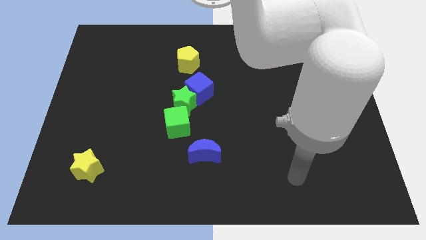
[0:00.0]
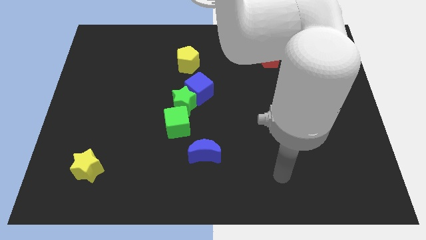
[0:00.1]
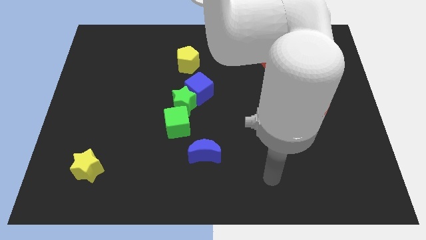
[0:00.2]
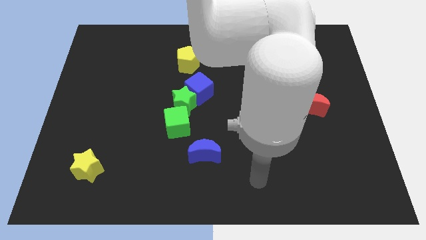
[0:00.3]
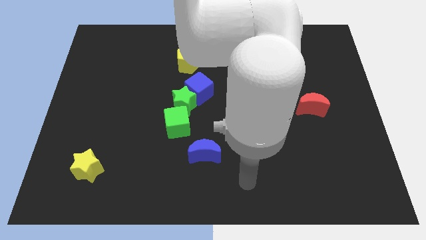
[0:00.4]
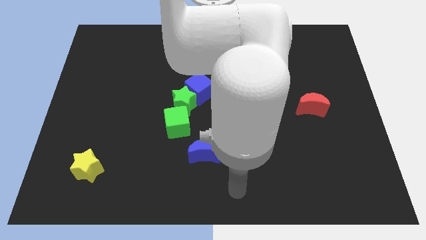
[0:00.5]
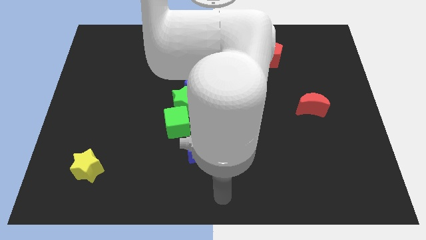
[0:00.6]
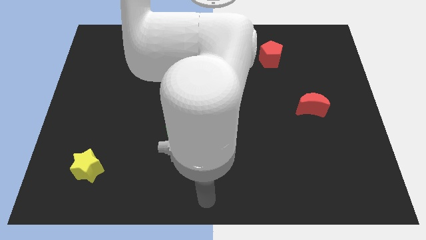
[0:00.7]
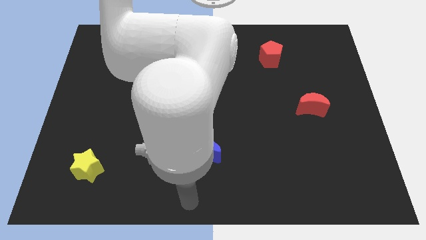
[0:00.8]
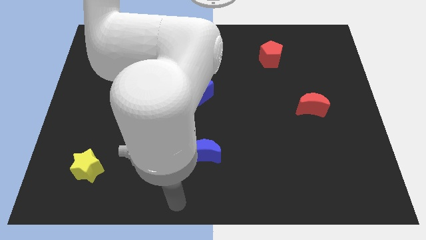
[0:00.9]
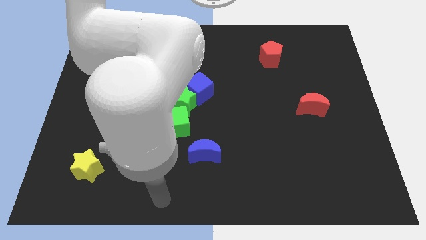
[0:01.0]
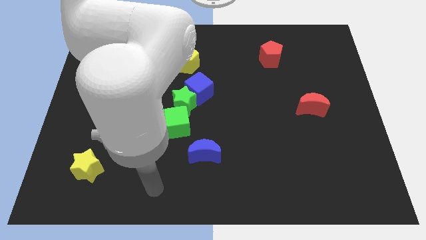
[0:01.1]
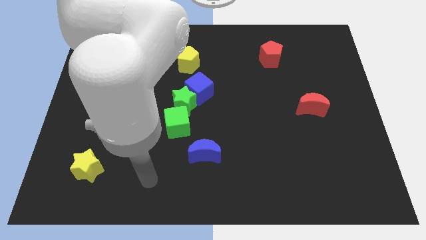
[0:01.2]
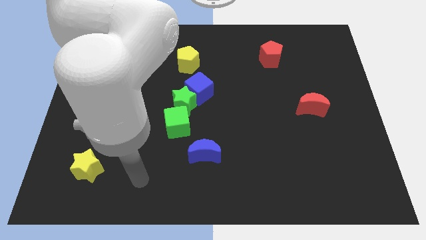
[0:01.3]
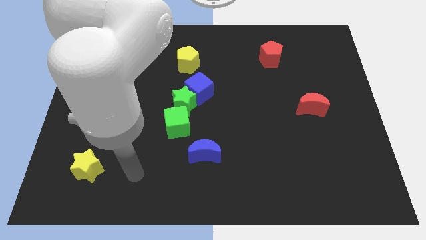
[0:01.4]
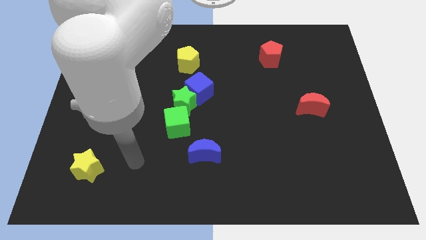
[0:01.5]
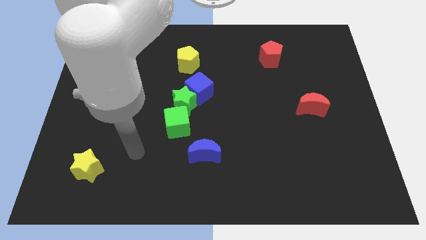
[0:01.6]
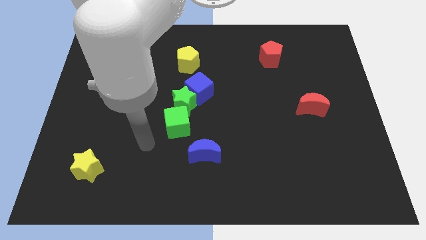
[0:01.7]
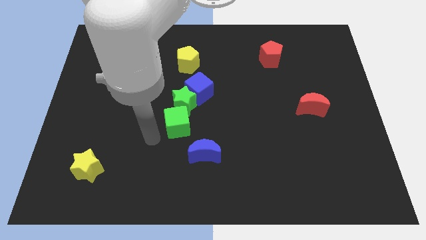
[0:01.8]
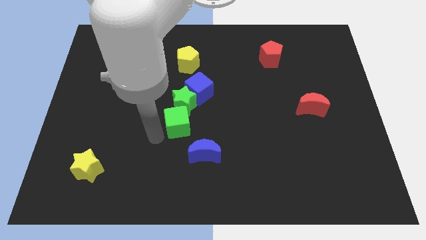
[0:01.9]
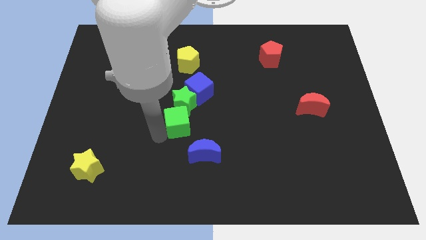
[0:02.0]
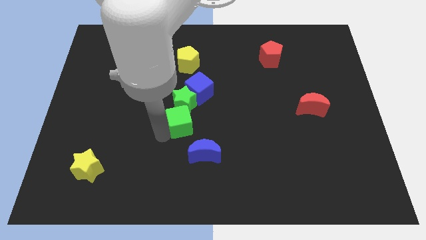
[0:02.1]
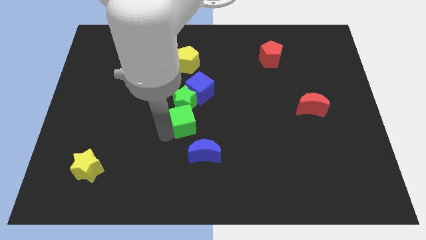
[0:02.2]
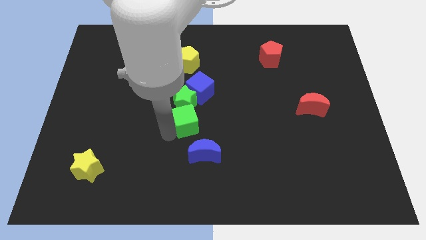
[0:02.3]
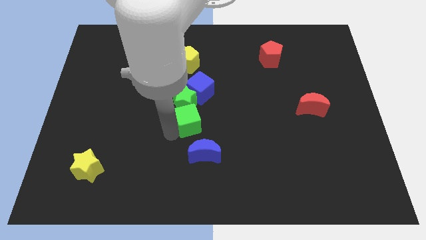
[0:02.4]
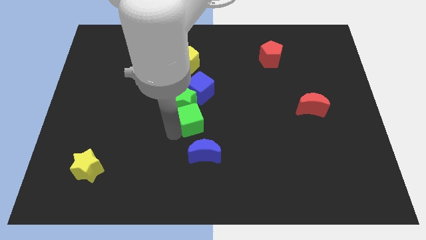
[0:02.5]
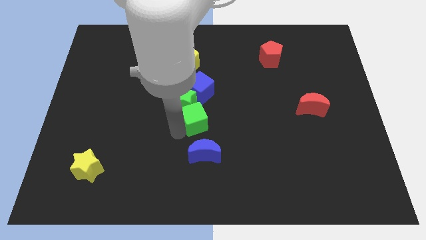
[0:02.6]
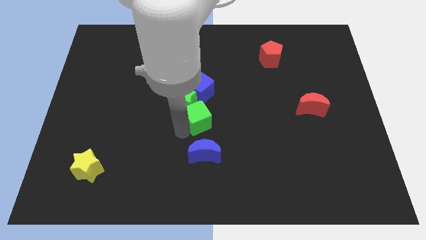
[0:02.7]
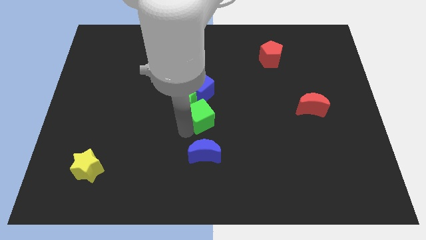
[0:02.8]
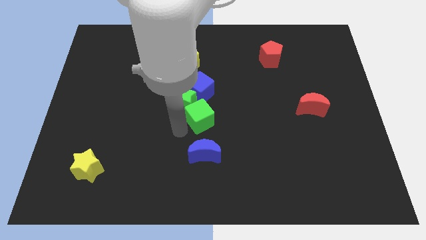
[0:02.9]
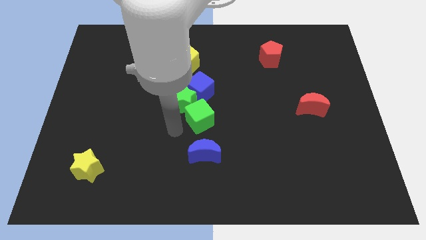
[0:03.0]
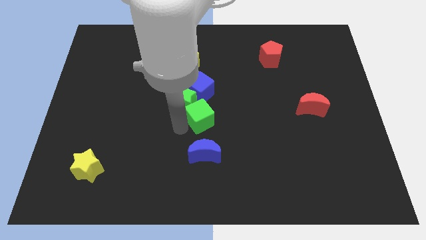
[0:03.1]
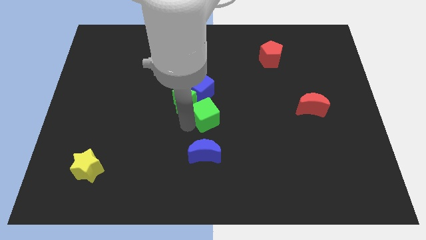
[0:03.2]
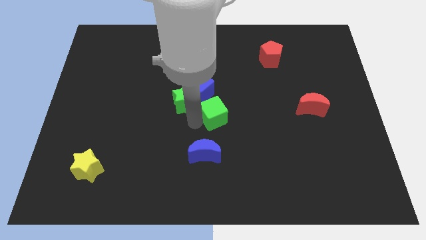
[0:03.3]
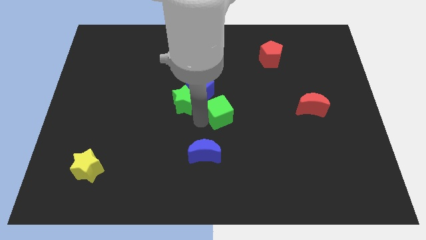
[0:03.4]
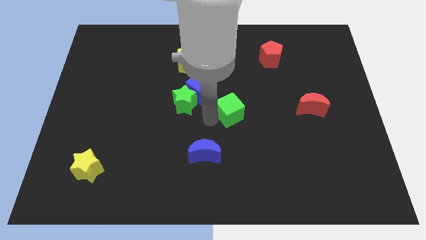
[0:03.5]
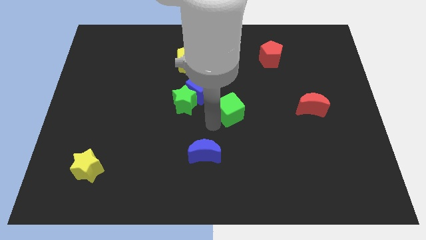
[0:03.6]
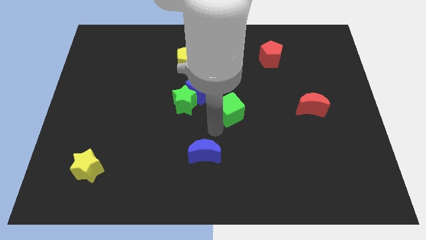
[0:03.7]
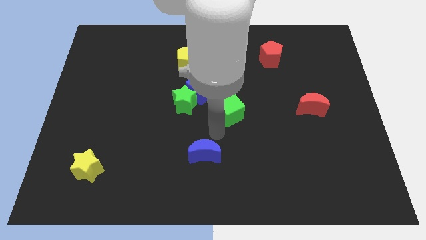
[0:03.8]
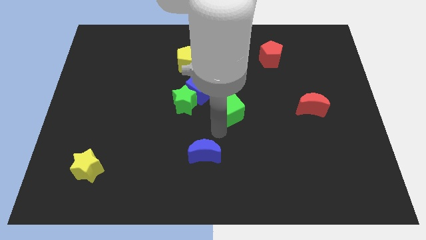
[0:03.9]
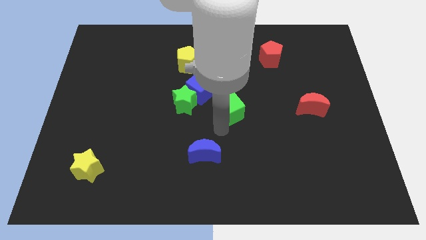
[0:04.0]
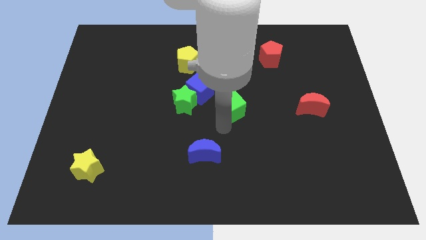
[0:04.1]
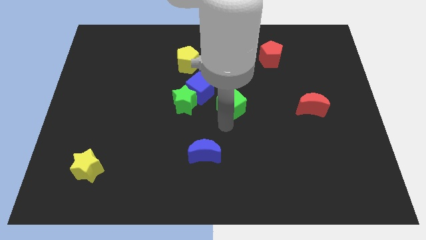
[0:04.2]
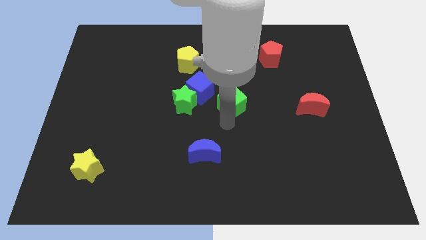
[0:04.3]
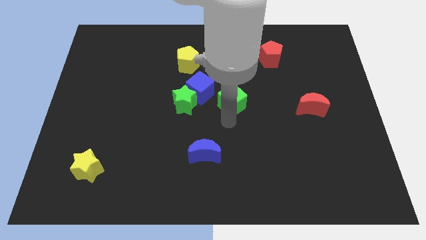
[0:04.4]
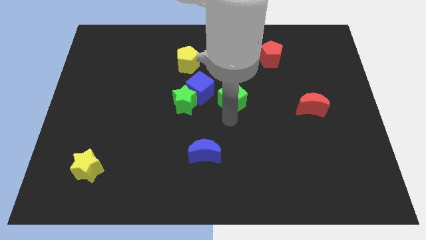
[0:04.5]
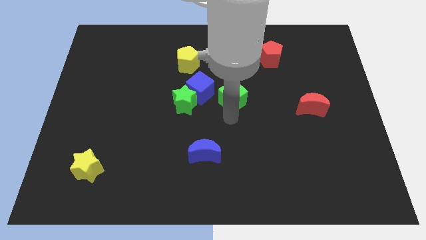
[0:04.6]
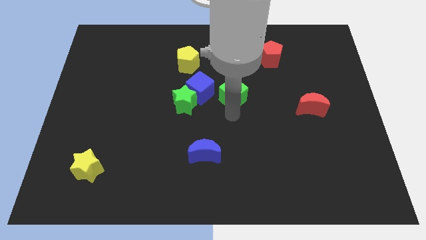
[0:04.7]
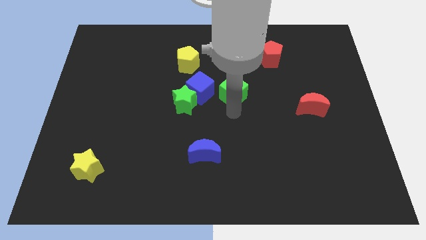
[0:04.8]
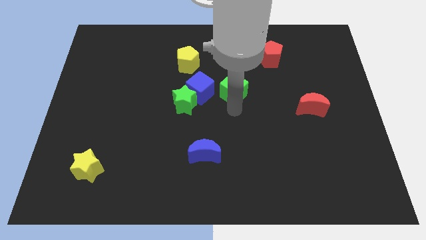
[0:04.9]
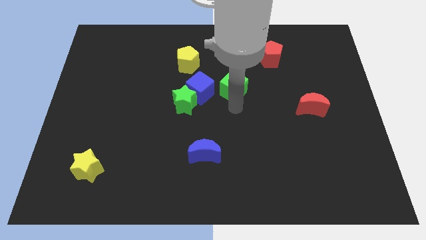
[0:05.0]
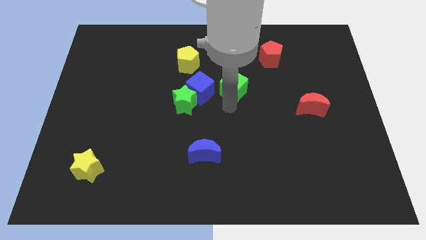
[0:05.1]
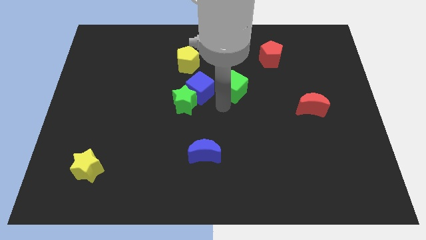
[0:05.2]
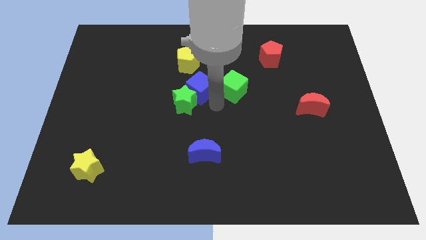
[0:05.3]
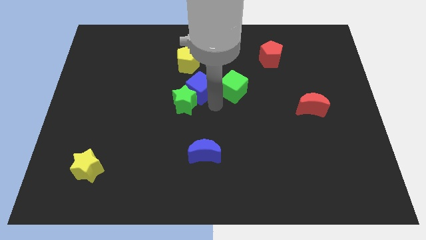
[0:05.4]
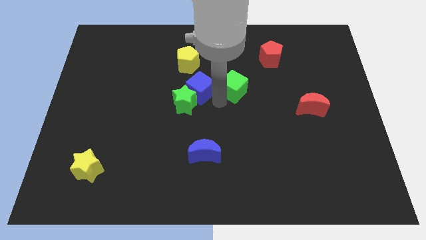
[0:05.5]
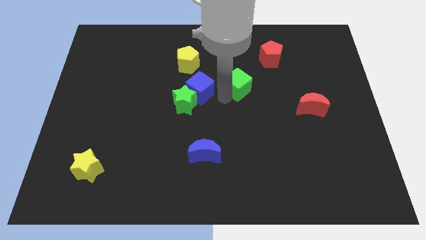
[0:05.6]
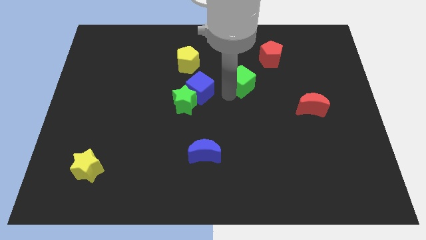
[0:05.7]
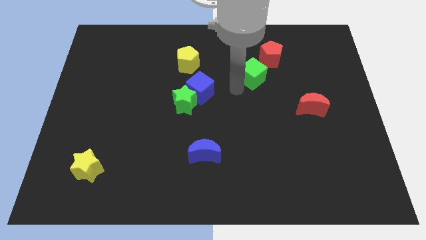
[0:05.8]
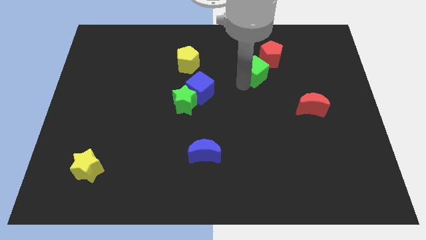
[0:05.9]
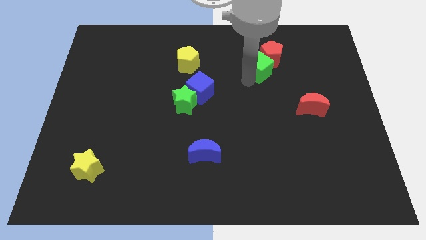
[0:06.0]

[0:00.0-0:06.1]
slide the green cube next to the red pentagon

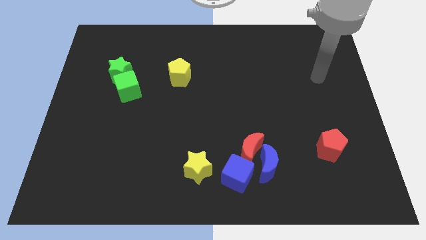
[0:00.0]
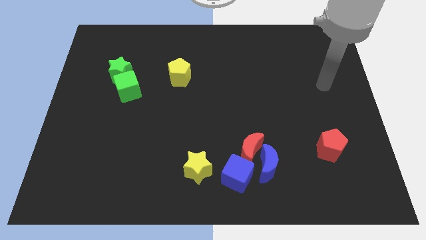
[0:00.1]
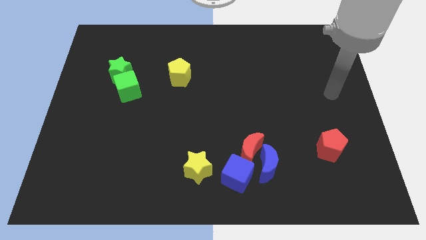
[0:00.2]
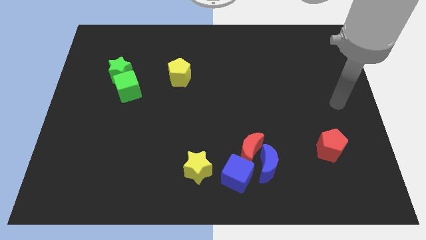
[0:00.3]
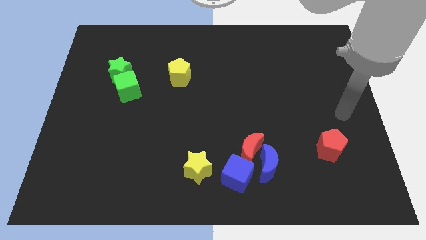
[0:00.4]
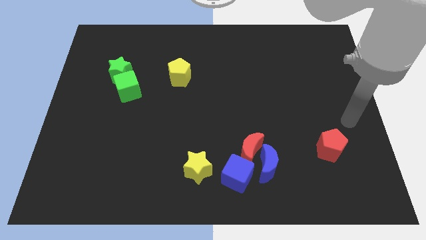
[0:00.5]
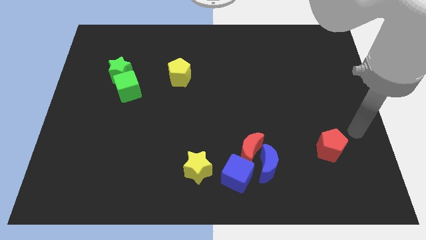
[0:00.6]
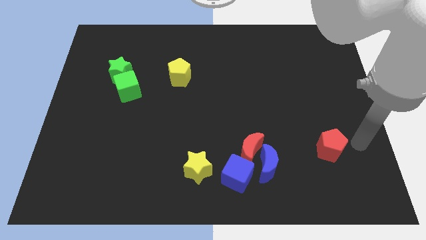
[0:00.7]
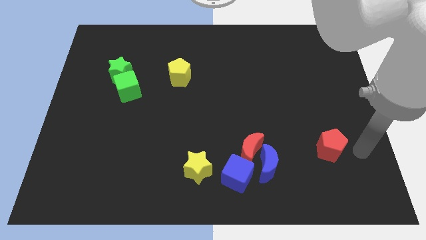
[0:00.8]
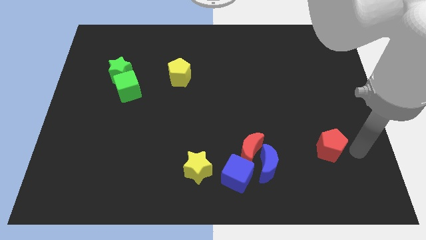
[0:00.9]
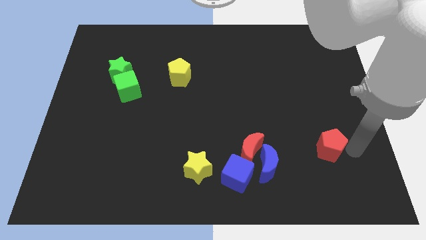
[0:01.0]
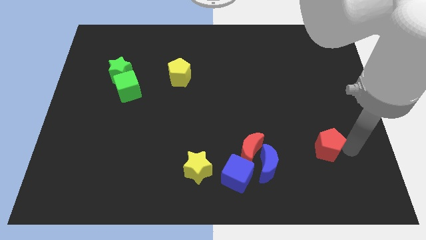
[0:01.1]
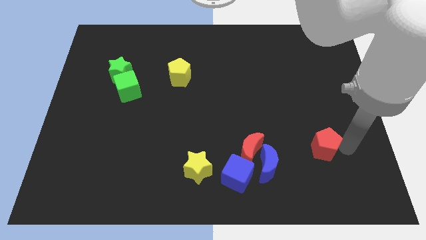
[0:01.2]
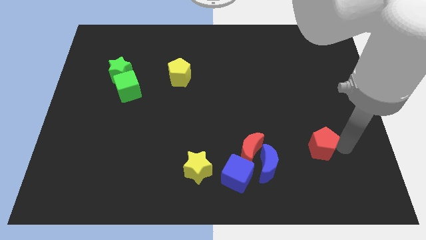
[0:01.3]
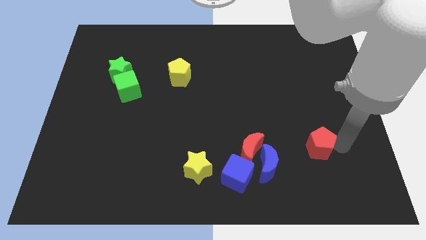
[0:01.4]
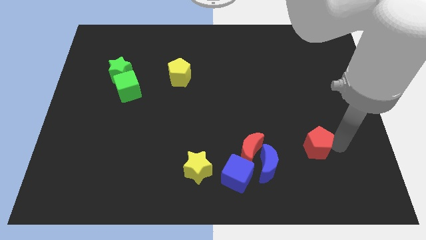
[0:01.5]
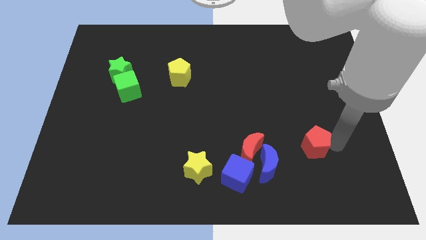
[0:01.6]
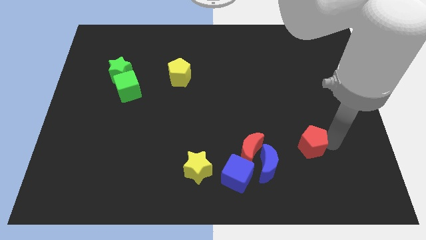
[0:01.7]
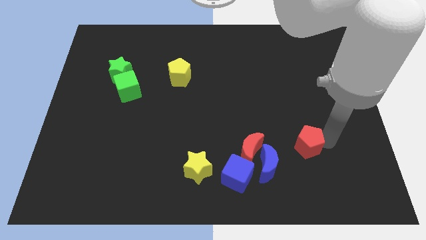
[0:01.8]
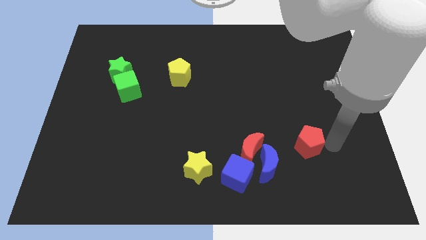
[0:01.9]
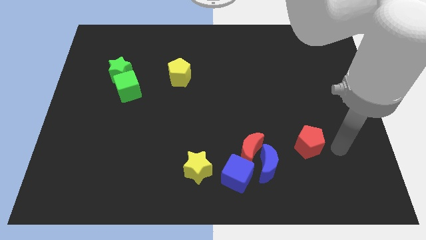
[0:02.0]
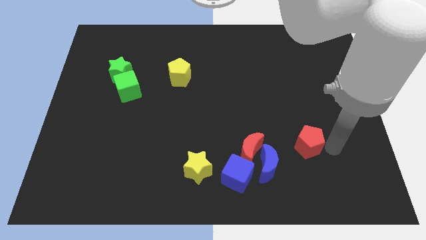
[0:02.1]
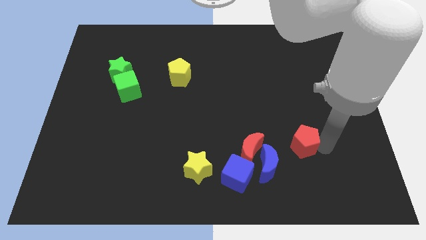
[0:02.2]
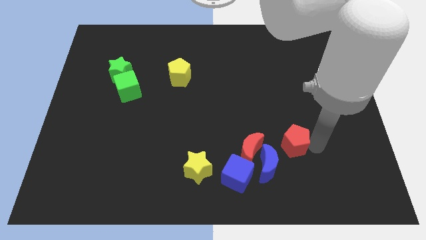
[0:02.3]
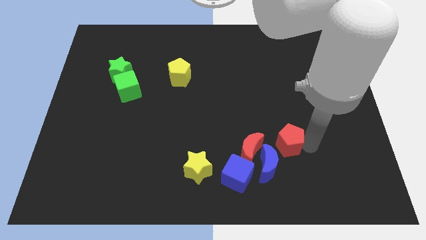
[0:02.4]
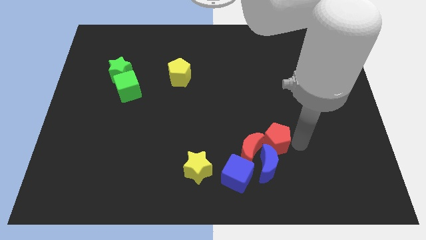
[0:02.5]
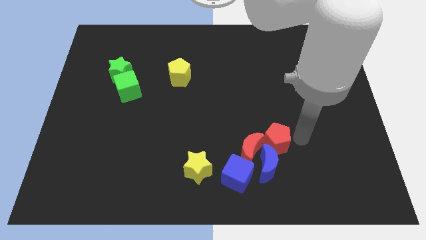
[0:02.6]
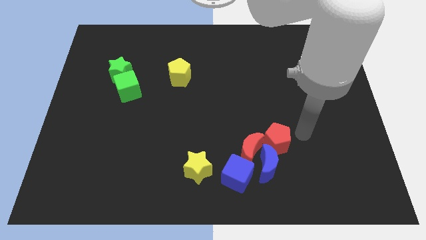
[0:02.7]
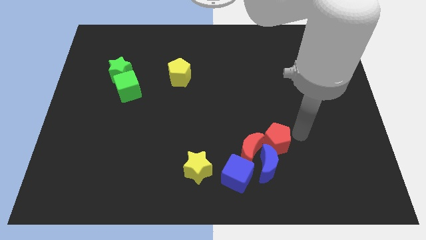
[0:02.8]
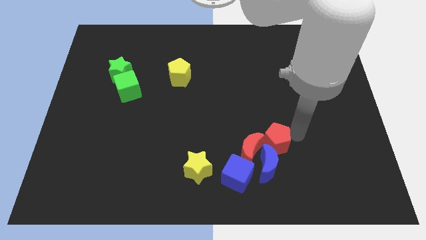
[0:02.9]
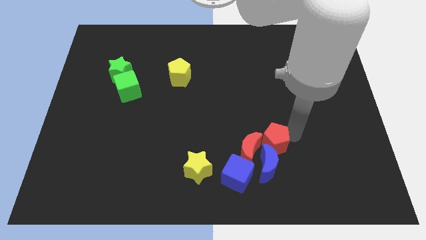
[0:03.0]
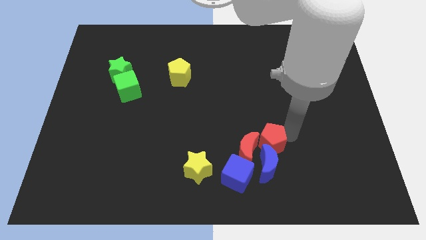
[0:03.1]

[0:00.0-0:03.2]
push the red pentagon to the red moon
